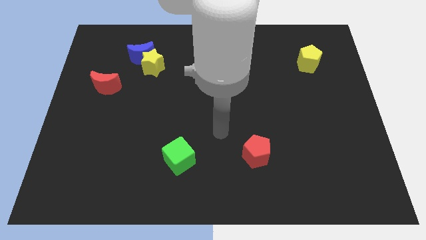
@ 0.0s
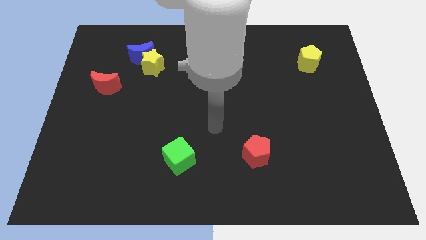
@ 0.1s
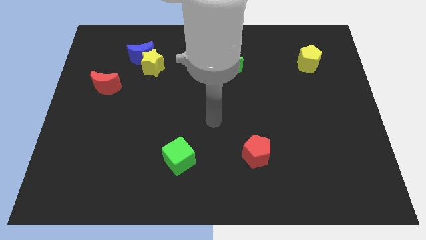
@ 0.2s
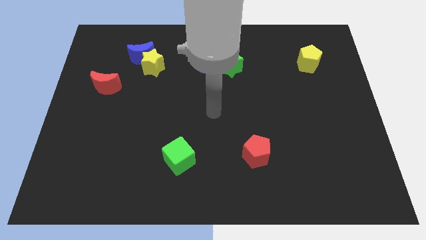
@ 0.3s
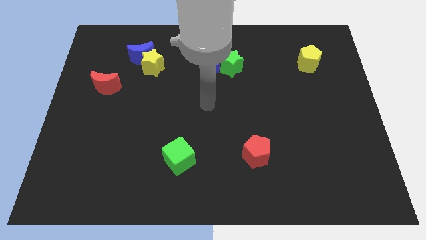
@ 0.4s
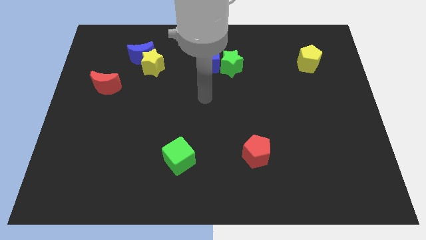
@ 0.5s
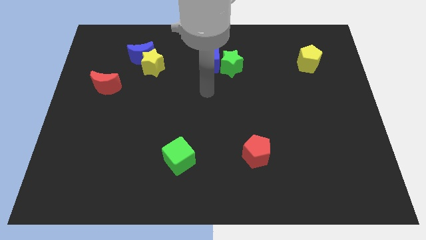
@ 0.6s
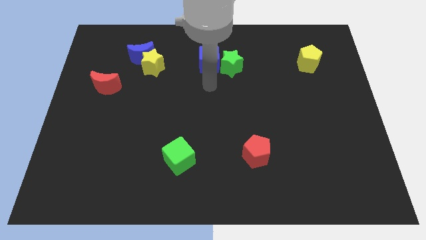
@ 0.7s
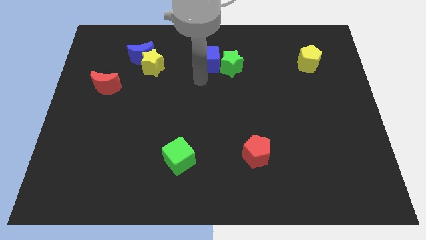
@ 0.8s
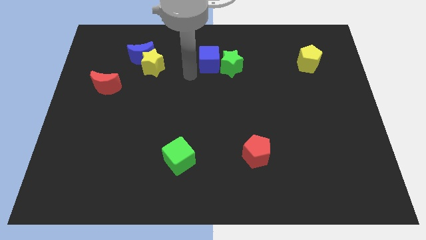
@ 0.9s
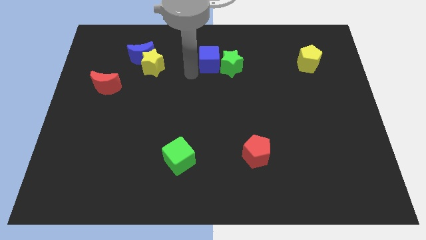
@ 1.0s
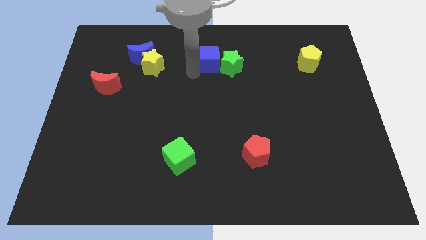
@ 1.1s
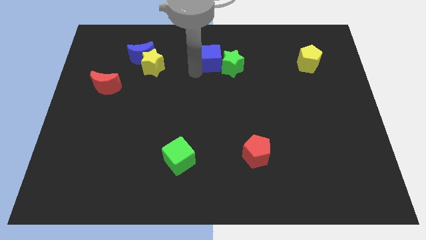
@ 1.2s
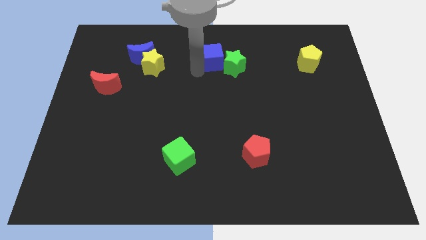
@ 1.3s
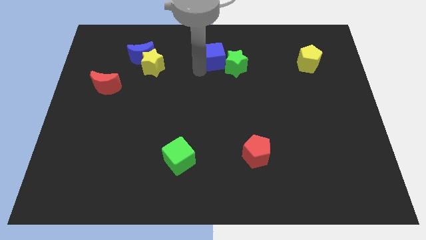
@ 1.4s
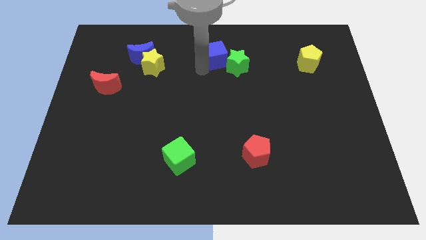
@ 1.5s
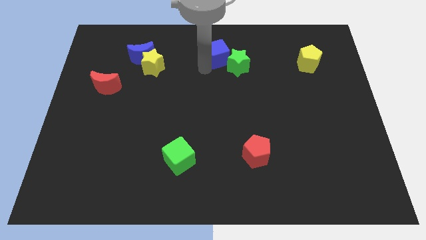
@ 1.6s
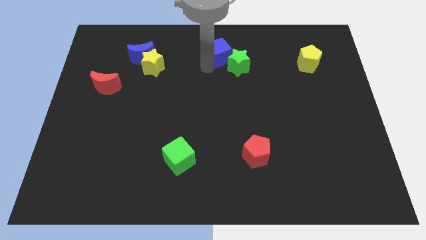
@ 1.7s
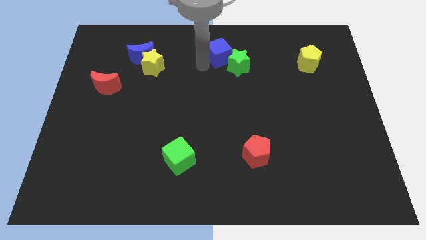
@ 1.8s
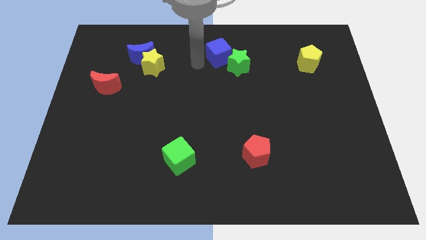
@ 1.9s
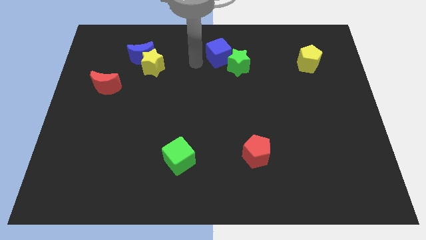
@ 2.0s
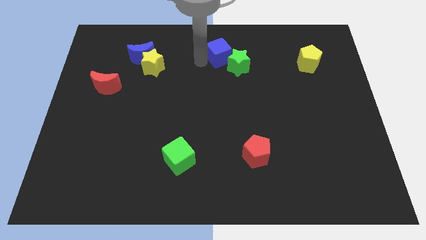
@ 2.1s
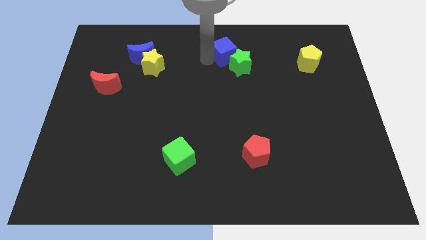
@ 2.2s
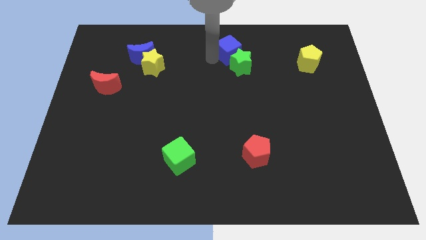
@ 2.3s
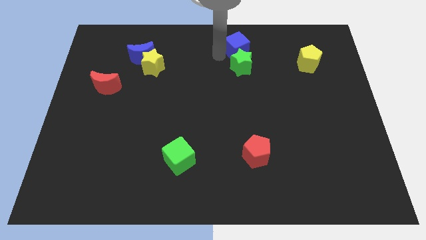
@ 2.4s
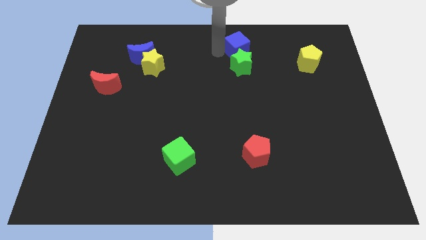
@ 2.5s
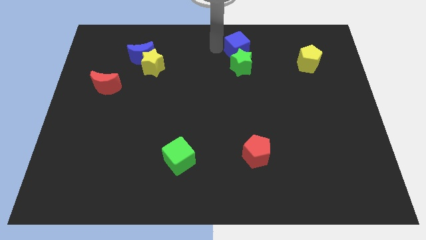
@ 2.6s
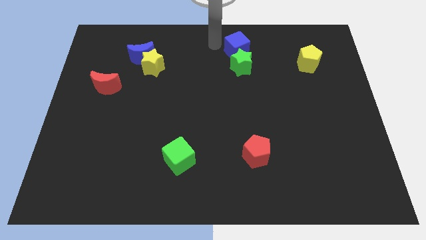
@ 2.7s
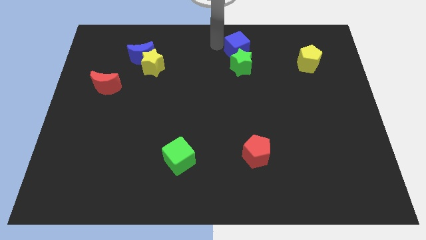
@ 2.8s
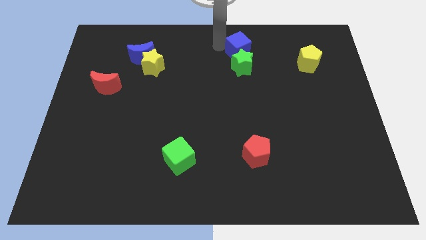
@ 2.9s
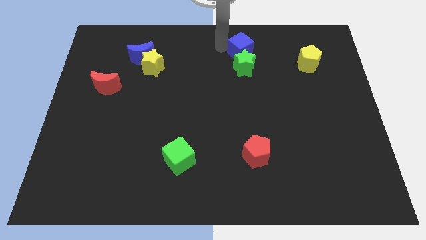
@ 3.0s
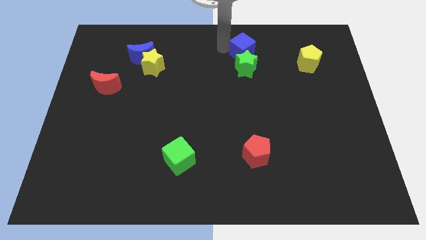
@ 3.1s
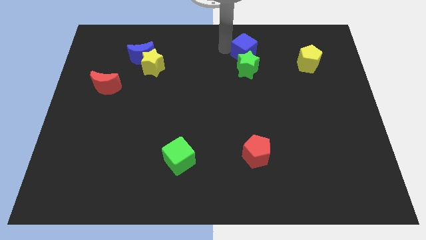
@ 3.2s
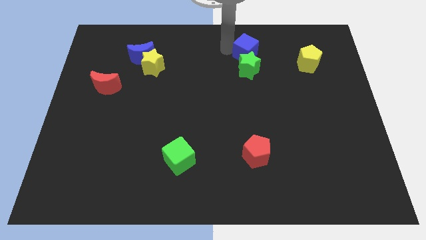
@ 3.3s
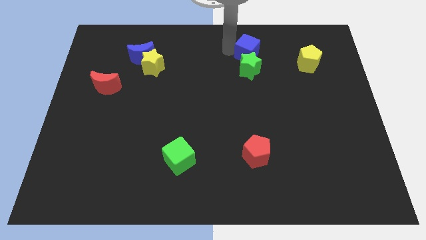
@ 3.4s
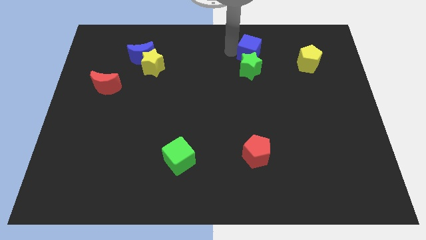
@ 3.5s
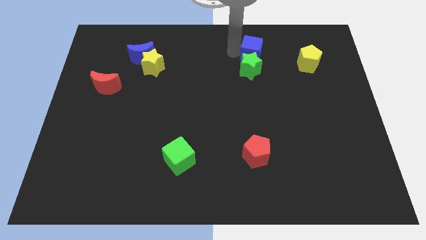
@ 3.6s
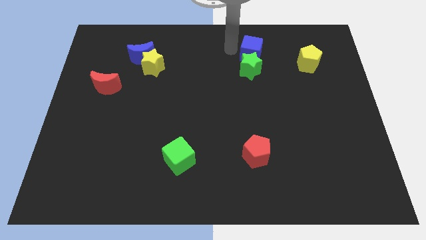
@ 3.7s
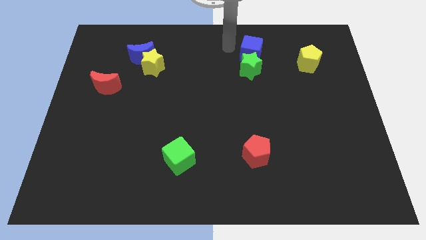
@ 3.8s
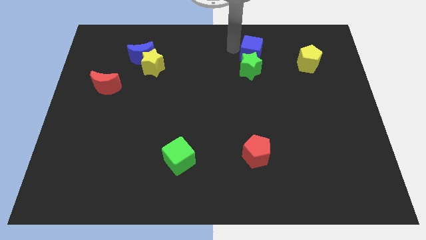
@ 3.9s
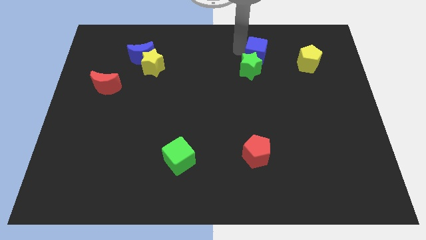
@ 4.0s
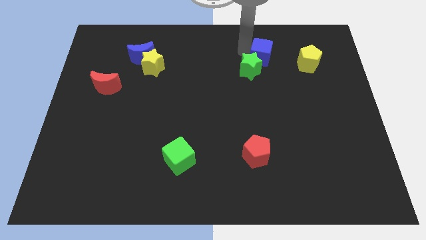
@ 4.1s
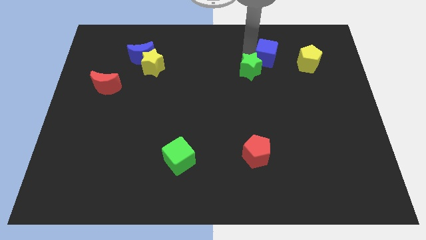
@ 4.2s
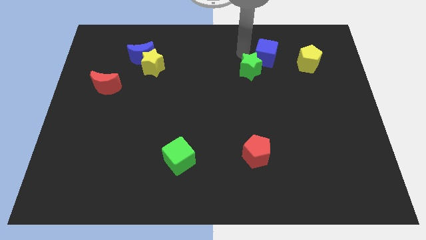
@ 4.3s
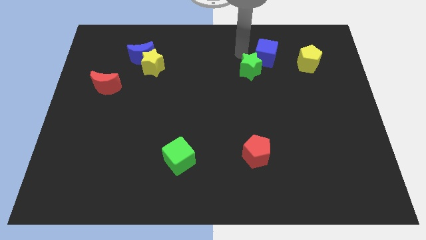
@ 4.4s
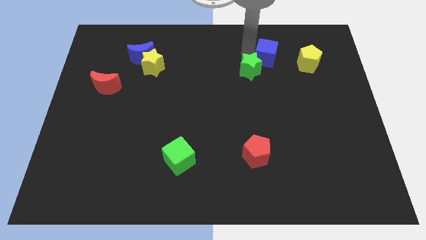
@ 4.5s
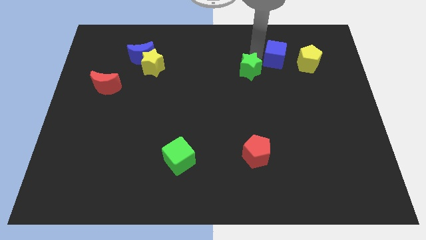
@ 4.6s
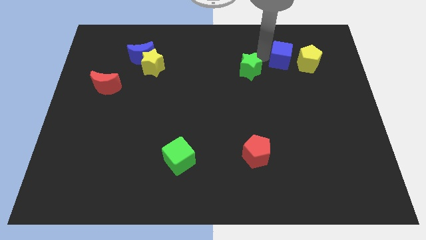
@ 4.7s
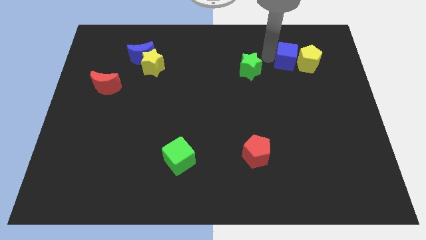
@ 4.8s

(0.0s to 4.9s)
put the blue cube to the yellow pentagon

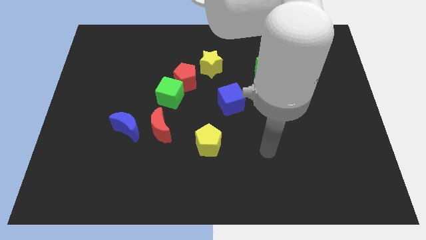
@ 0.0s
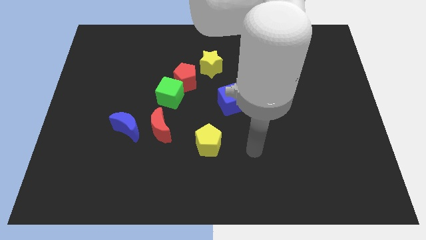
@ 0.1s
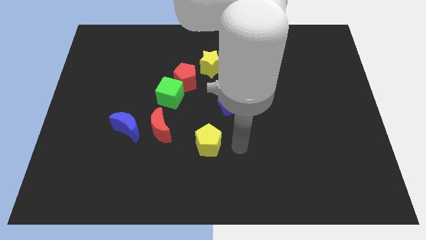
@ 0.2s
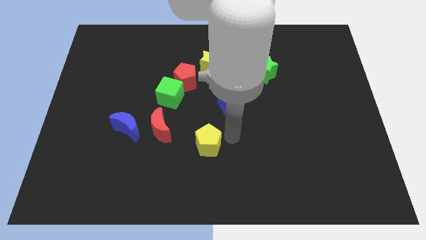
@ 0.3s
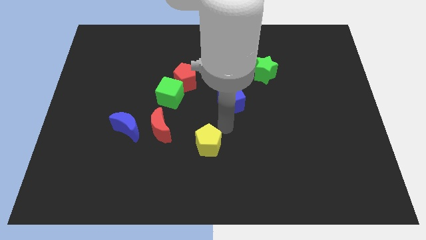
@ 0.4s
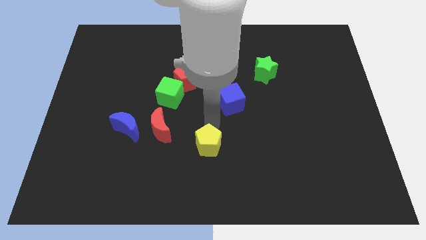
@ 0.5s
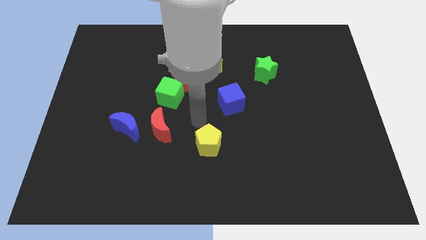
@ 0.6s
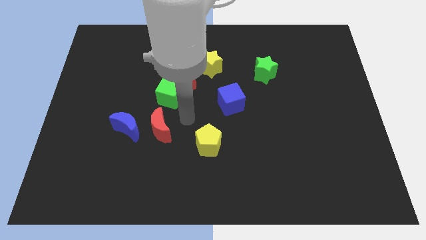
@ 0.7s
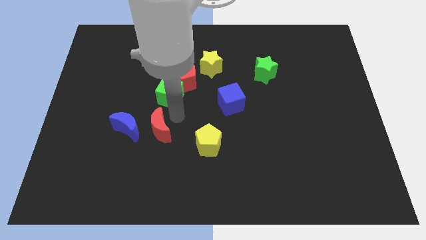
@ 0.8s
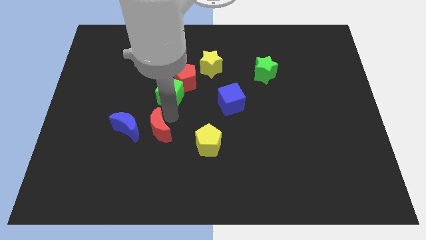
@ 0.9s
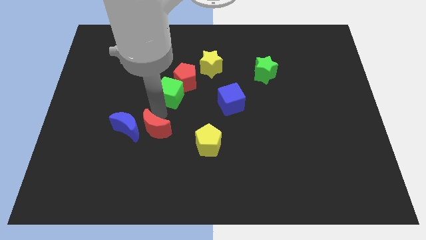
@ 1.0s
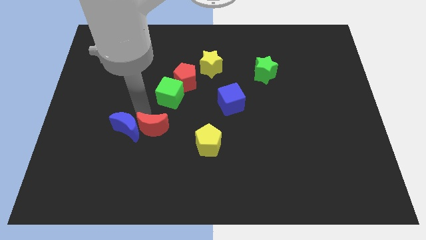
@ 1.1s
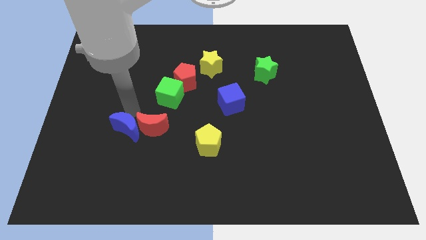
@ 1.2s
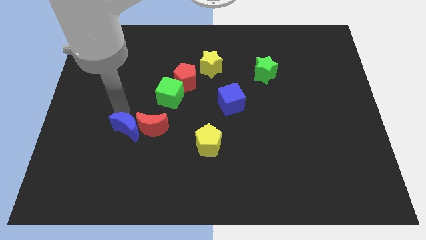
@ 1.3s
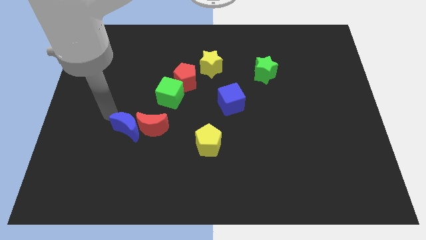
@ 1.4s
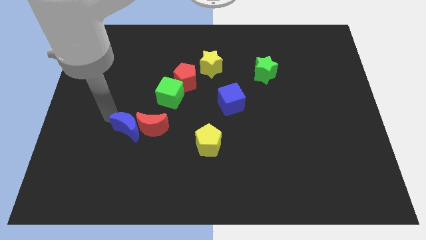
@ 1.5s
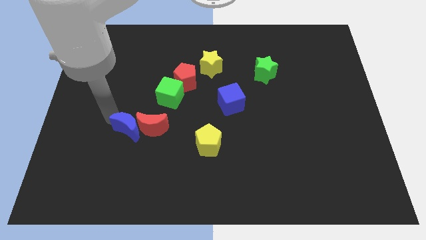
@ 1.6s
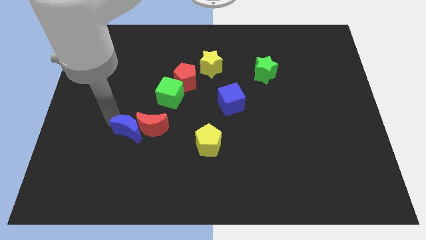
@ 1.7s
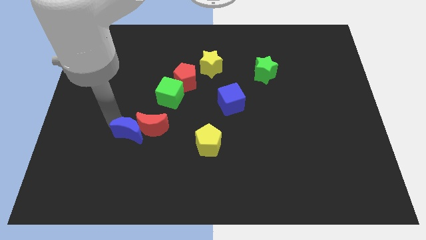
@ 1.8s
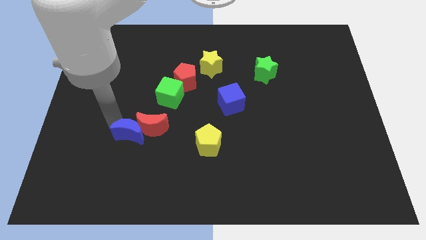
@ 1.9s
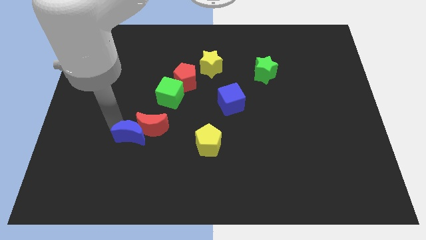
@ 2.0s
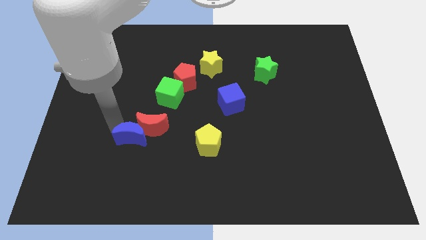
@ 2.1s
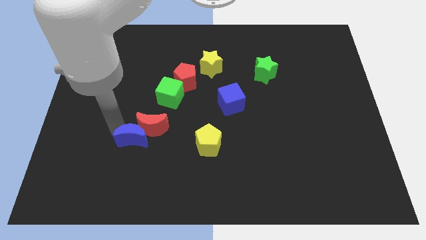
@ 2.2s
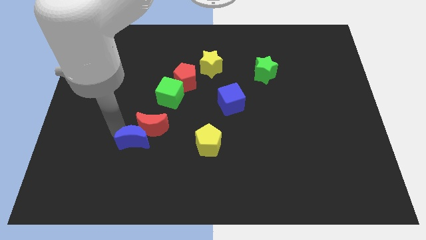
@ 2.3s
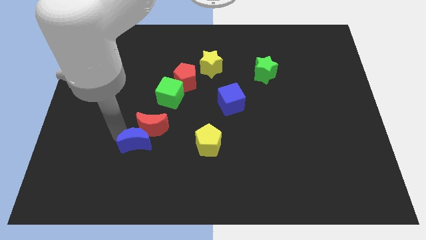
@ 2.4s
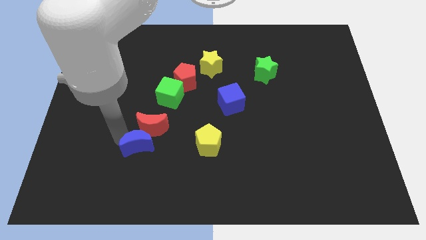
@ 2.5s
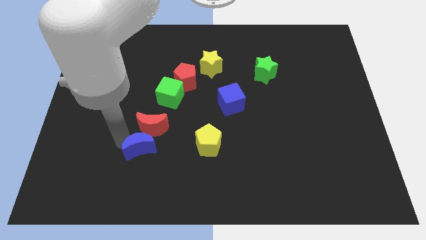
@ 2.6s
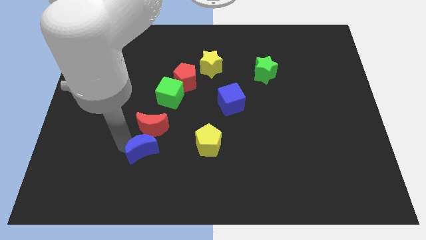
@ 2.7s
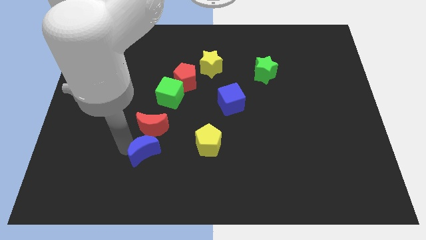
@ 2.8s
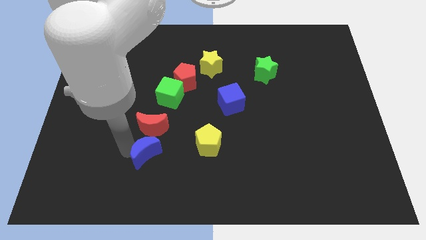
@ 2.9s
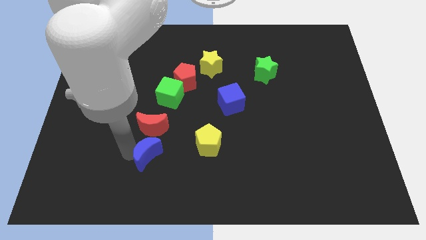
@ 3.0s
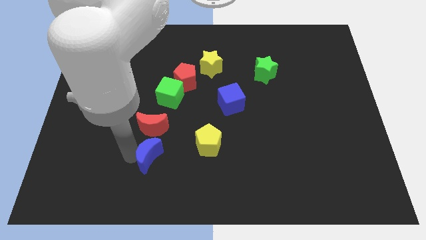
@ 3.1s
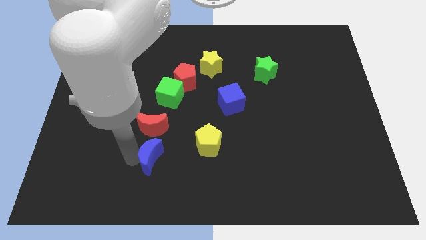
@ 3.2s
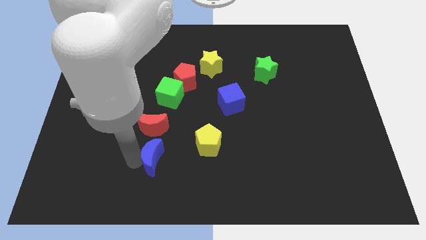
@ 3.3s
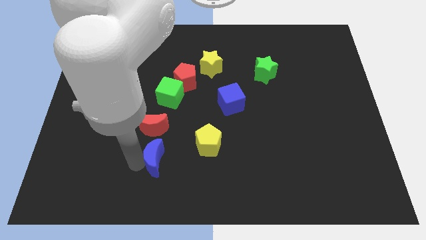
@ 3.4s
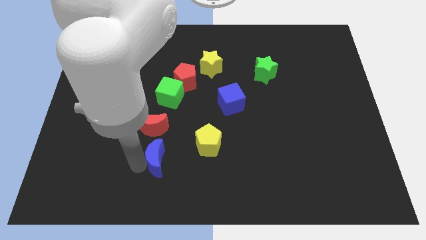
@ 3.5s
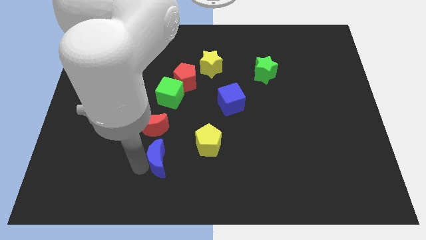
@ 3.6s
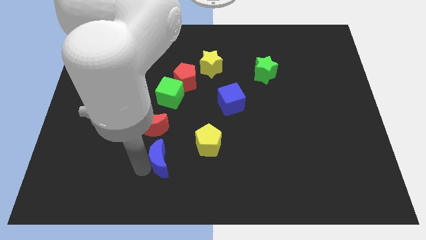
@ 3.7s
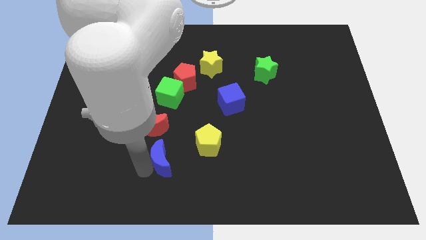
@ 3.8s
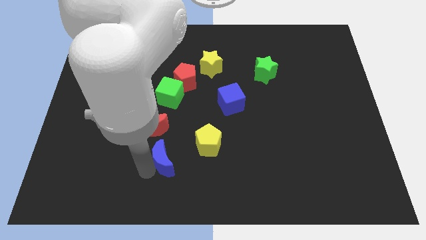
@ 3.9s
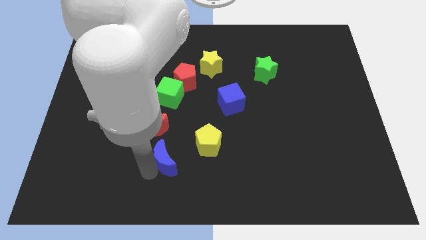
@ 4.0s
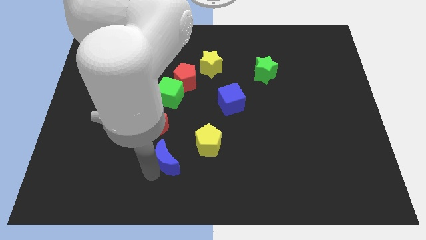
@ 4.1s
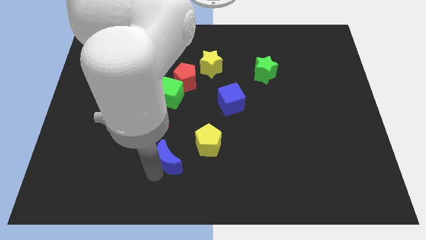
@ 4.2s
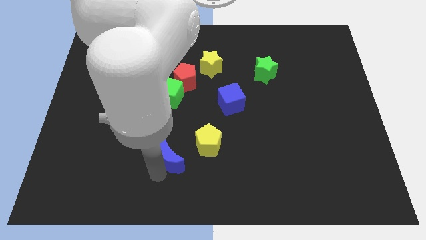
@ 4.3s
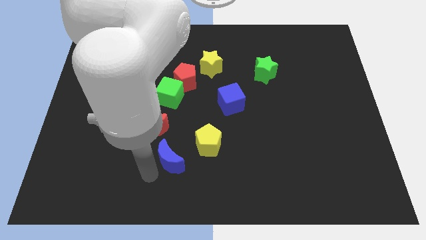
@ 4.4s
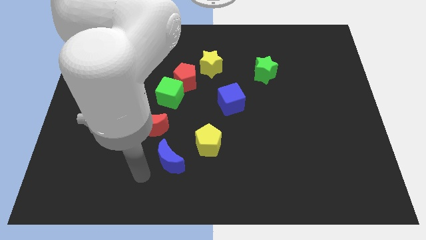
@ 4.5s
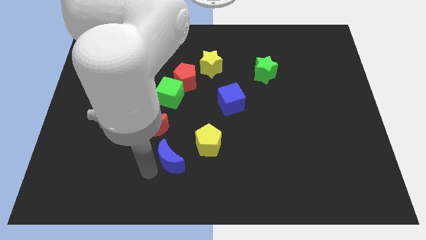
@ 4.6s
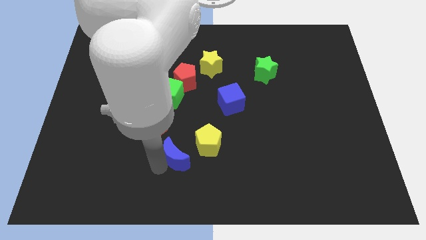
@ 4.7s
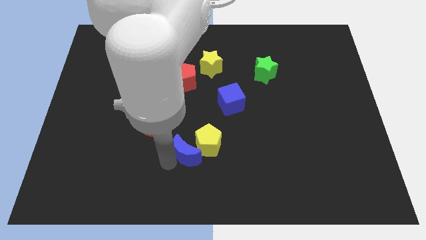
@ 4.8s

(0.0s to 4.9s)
slide the blue moon close to the yellow pentagon
